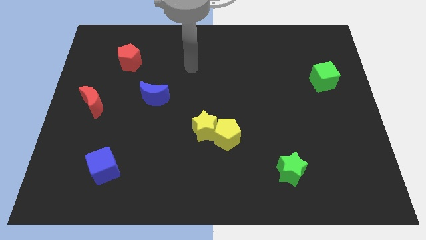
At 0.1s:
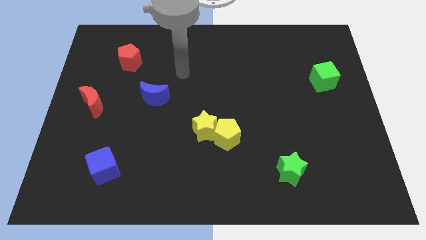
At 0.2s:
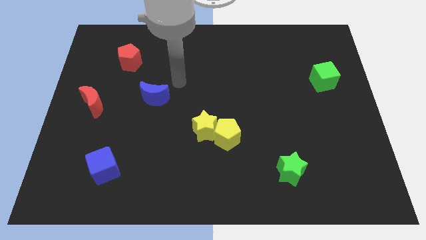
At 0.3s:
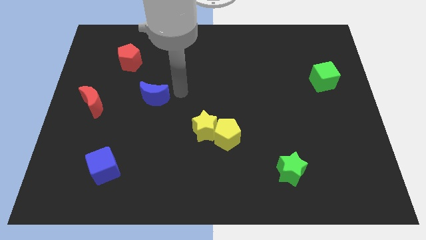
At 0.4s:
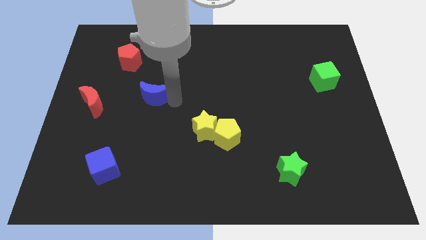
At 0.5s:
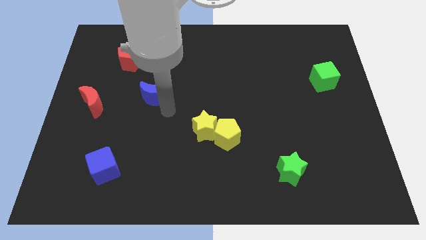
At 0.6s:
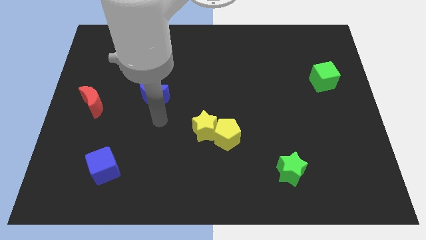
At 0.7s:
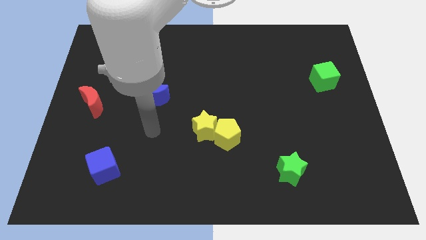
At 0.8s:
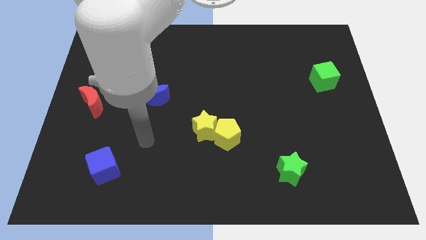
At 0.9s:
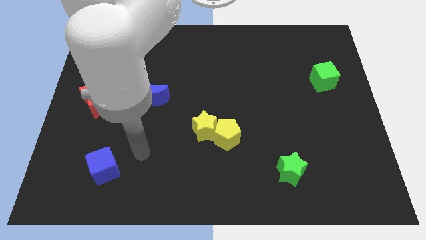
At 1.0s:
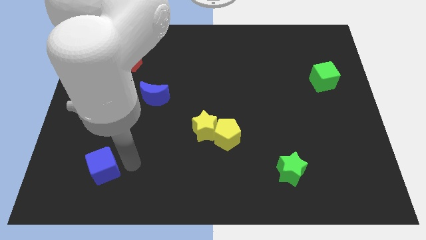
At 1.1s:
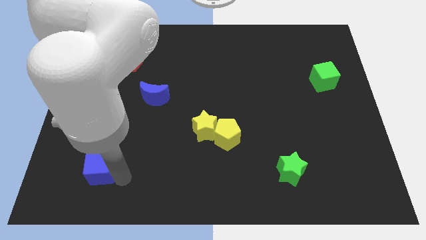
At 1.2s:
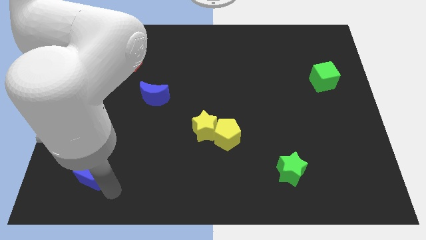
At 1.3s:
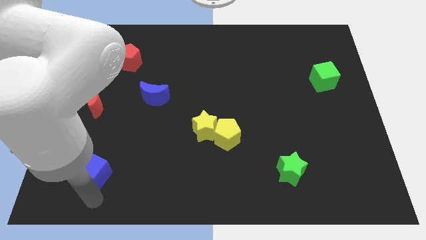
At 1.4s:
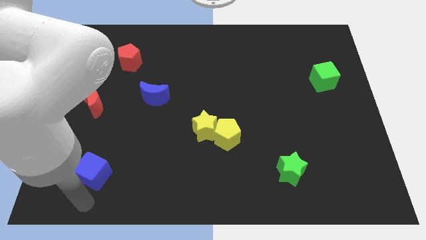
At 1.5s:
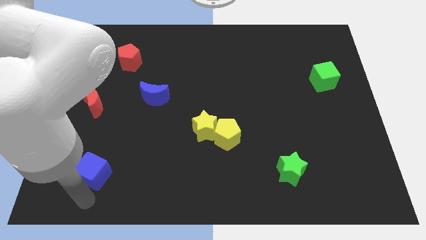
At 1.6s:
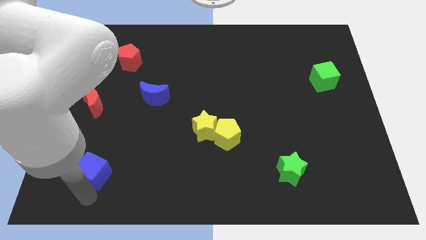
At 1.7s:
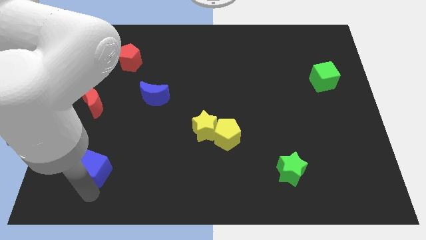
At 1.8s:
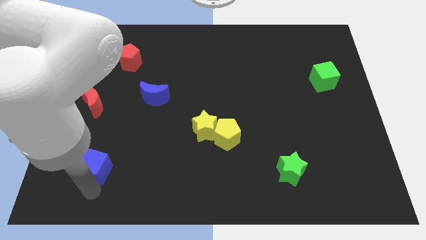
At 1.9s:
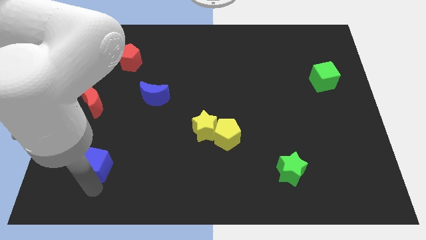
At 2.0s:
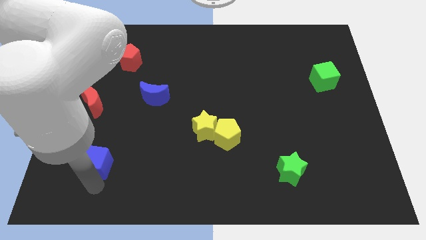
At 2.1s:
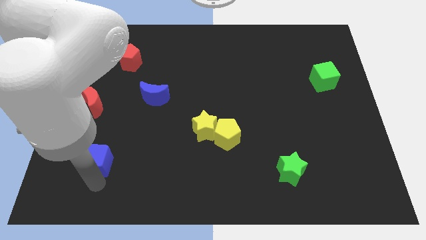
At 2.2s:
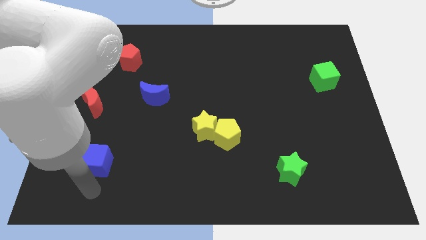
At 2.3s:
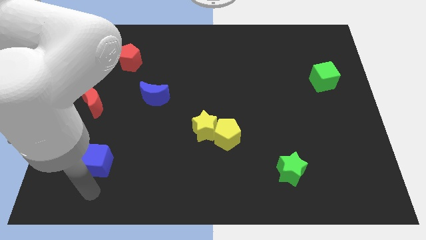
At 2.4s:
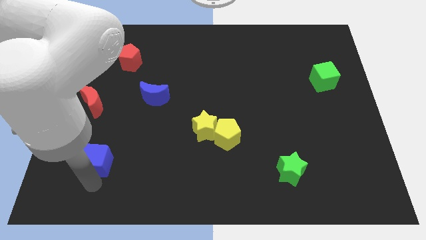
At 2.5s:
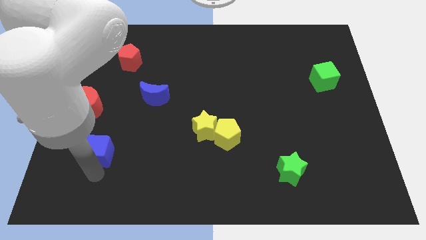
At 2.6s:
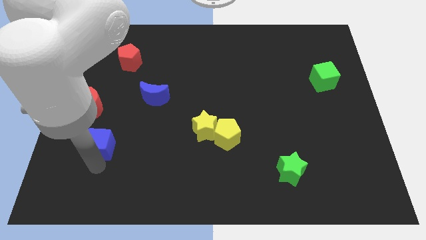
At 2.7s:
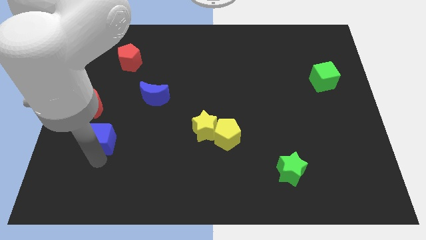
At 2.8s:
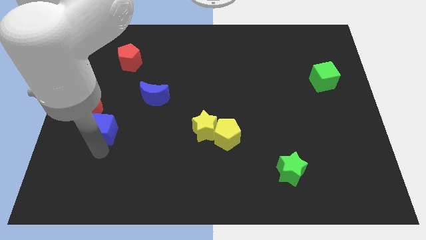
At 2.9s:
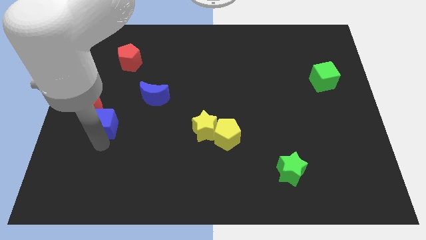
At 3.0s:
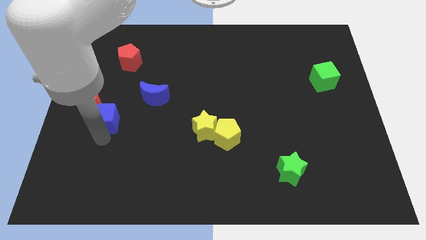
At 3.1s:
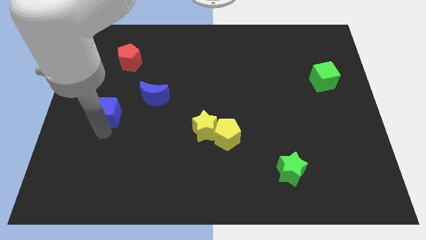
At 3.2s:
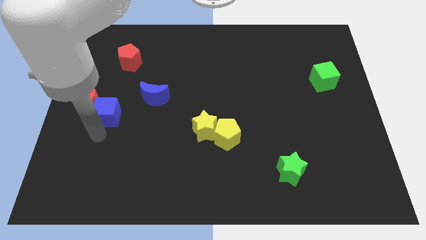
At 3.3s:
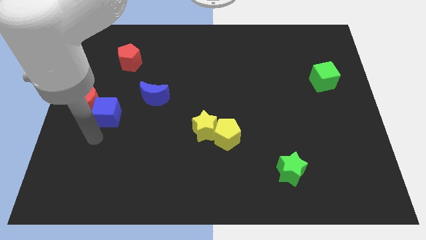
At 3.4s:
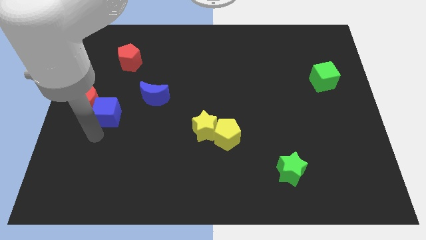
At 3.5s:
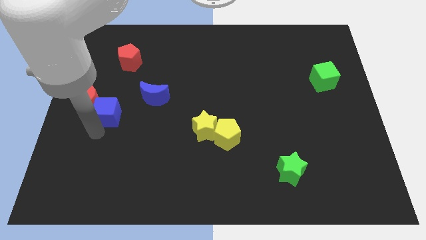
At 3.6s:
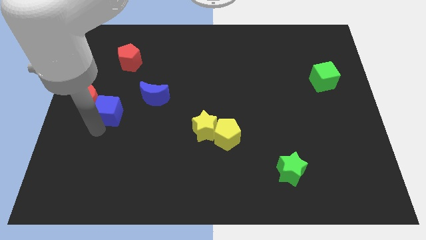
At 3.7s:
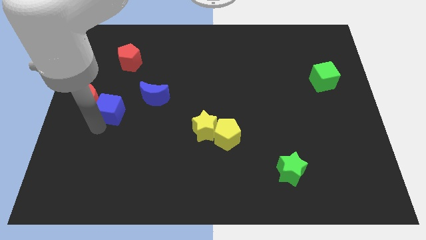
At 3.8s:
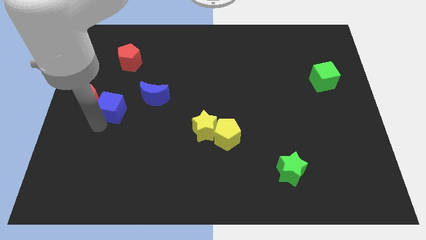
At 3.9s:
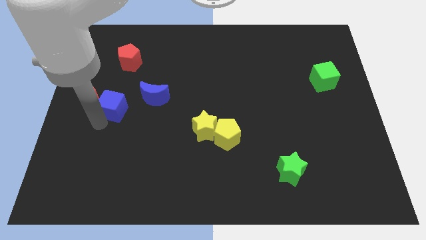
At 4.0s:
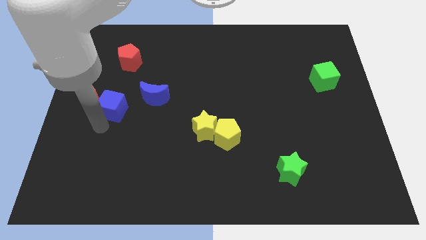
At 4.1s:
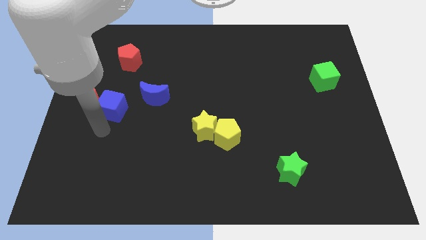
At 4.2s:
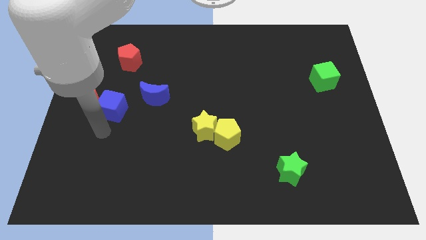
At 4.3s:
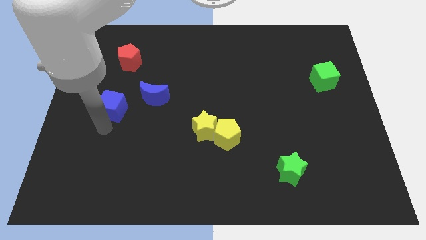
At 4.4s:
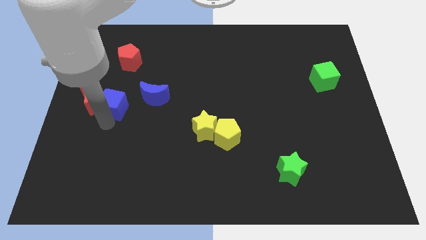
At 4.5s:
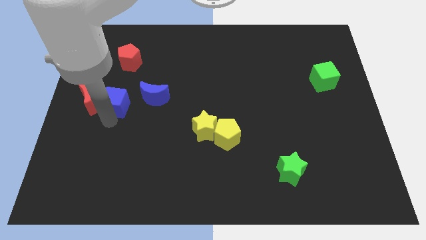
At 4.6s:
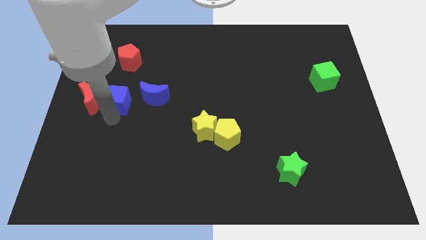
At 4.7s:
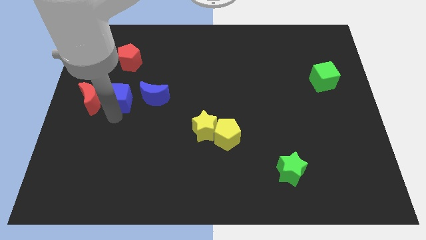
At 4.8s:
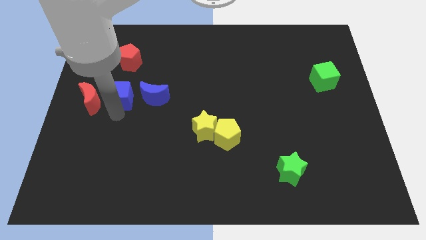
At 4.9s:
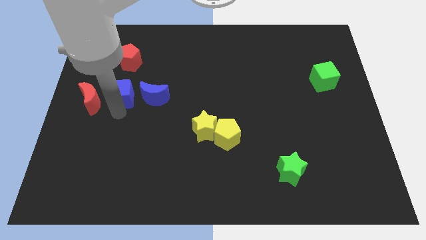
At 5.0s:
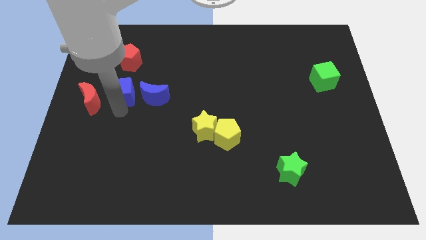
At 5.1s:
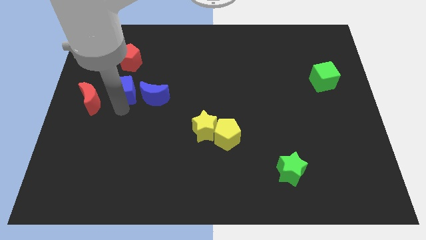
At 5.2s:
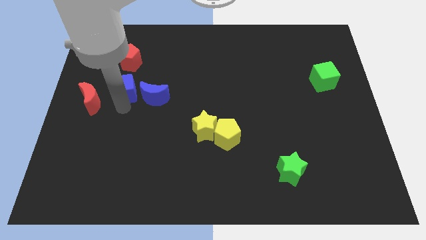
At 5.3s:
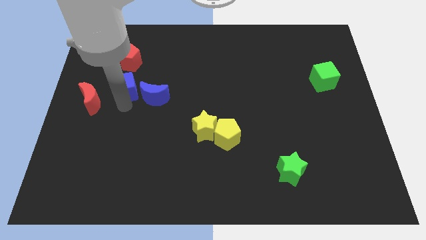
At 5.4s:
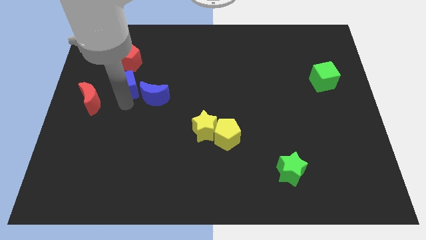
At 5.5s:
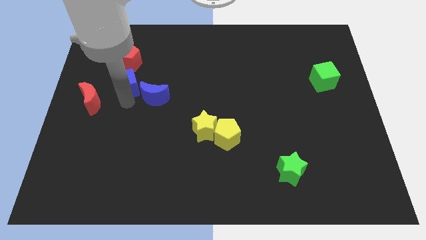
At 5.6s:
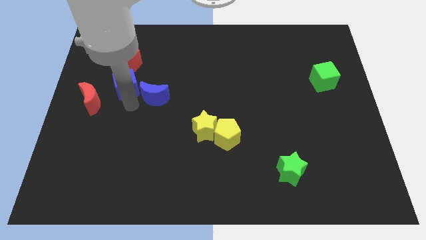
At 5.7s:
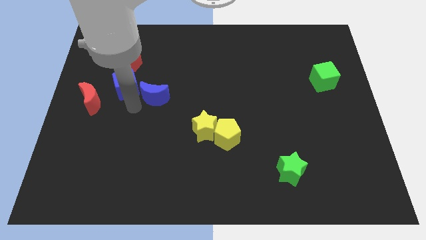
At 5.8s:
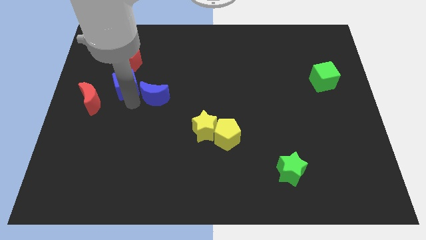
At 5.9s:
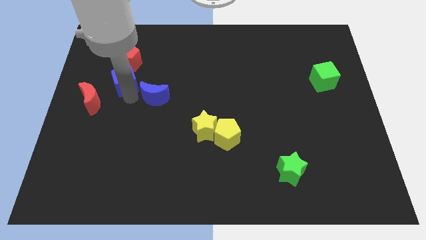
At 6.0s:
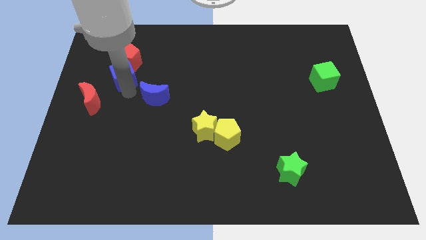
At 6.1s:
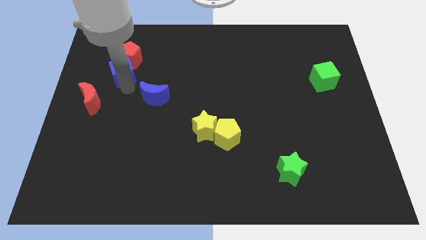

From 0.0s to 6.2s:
push the blue cube close to the red pentagon

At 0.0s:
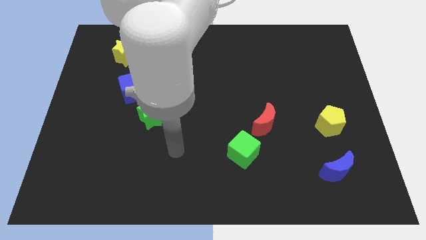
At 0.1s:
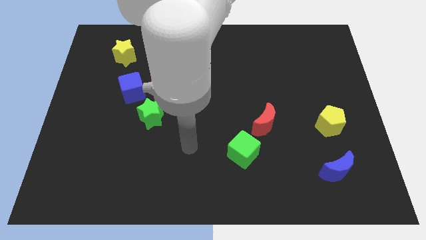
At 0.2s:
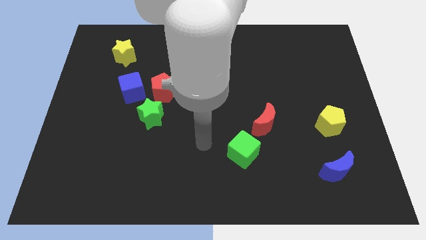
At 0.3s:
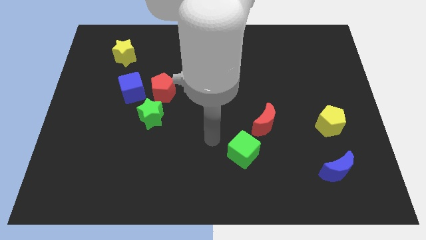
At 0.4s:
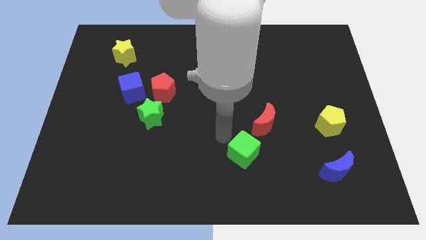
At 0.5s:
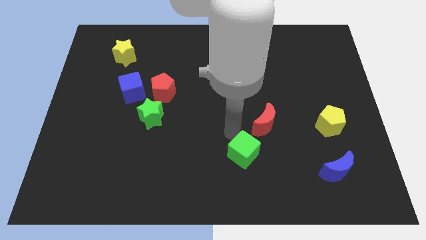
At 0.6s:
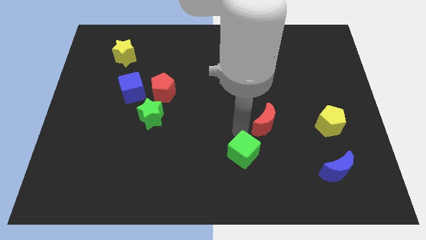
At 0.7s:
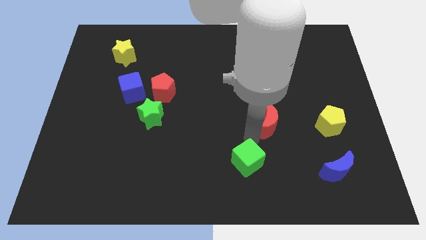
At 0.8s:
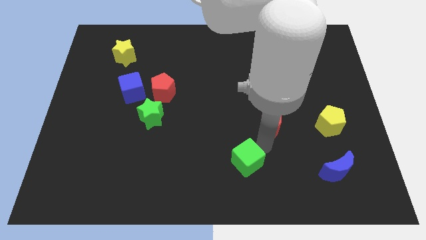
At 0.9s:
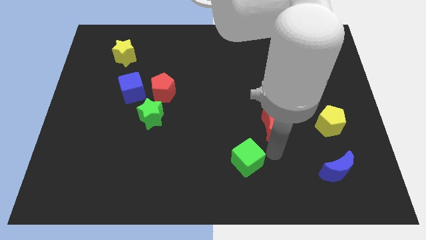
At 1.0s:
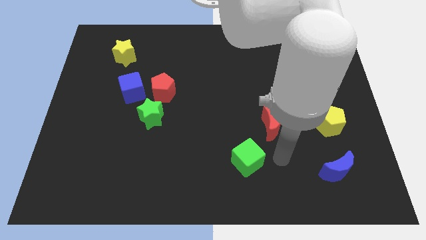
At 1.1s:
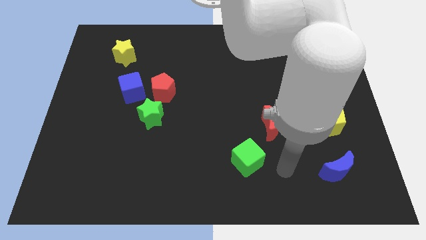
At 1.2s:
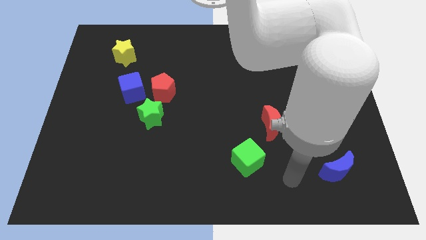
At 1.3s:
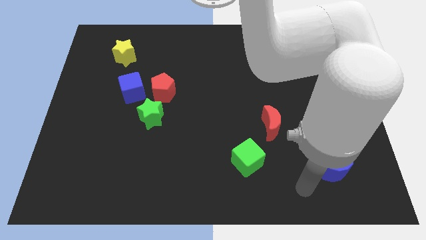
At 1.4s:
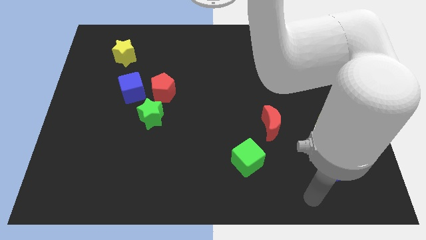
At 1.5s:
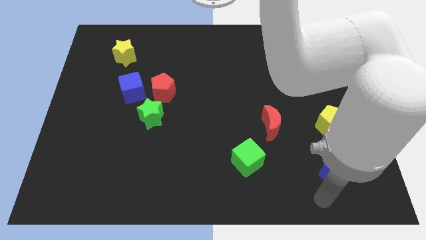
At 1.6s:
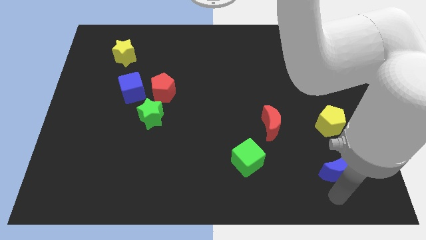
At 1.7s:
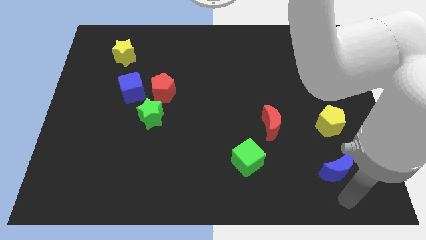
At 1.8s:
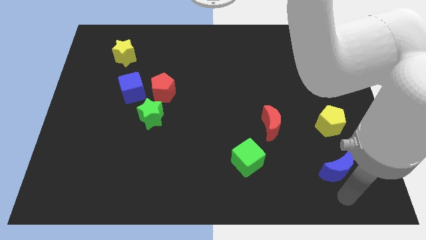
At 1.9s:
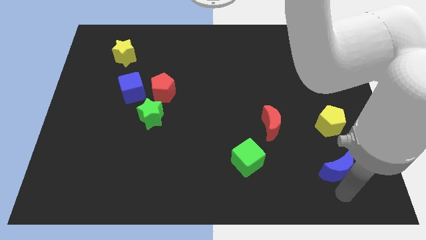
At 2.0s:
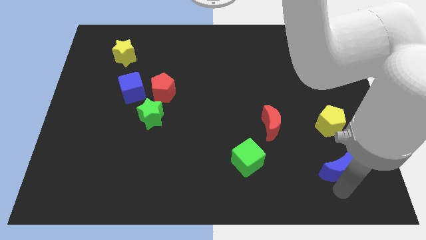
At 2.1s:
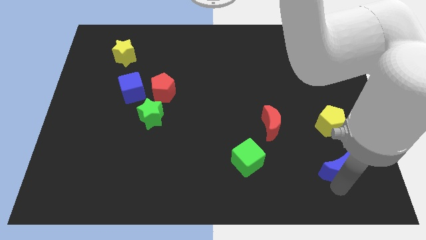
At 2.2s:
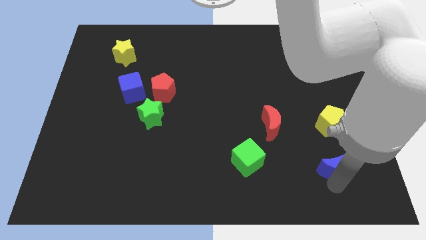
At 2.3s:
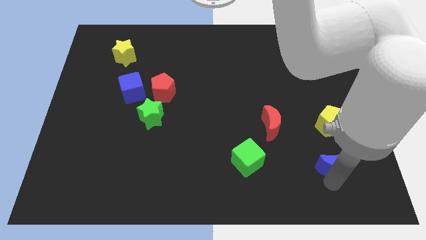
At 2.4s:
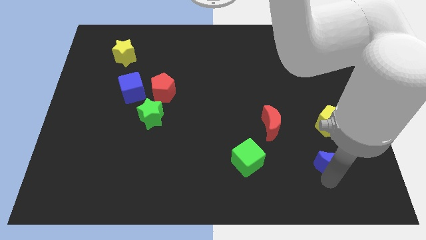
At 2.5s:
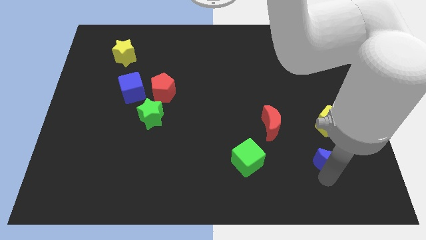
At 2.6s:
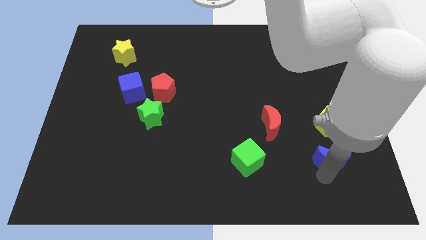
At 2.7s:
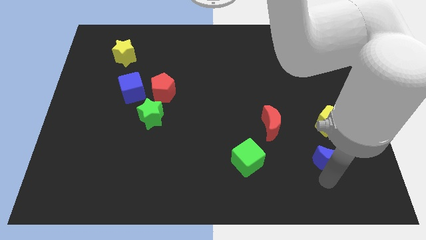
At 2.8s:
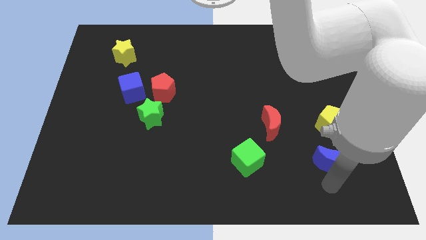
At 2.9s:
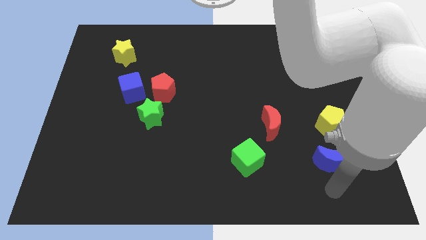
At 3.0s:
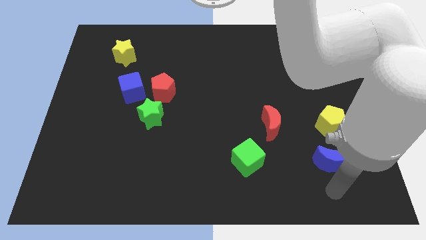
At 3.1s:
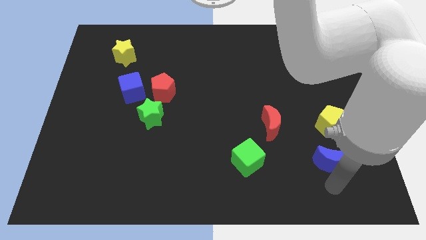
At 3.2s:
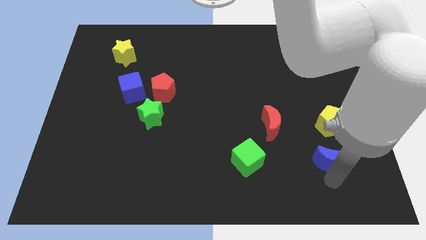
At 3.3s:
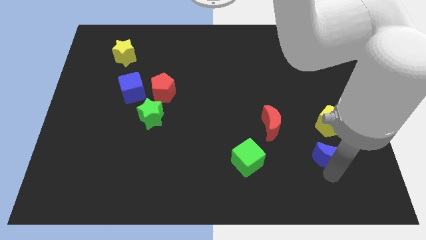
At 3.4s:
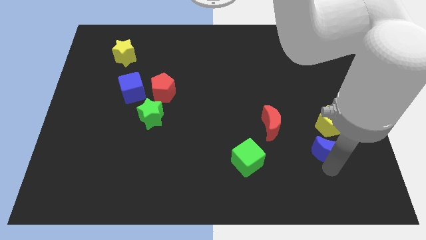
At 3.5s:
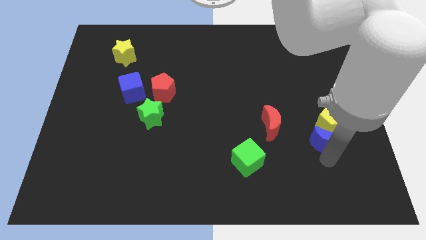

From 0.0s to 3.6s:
put the blue moon towards the yellow pentagon
